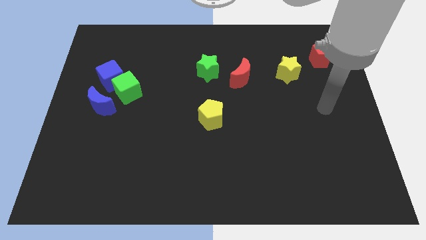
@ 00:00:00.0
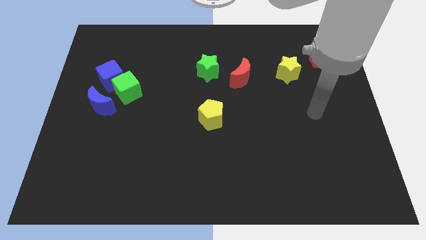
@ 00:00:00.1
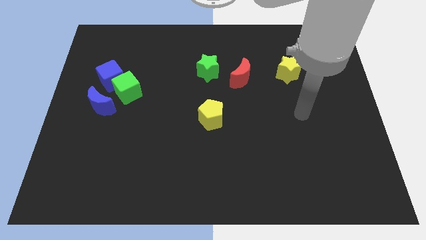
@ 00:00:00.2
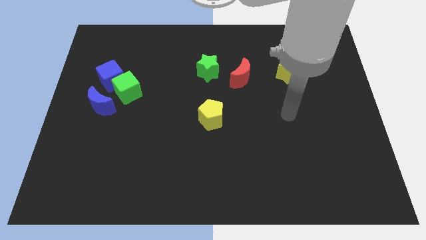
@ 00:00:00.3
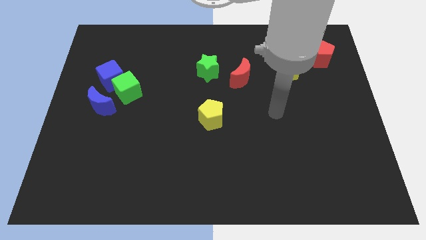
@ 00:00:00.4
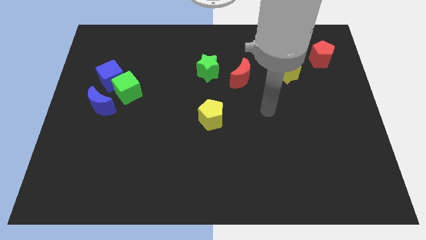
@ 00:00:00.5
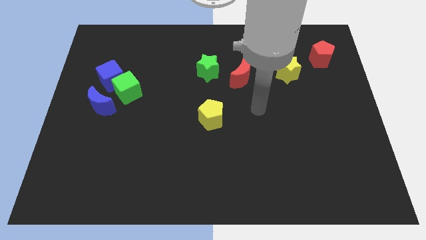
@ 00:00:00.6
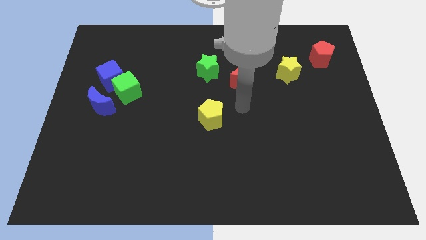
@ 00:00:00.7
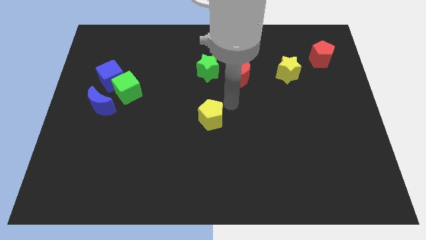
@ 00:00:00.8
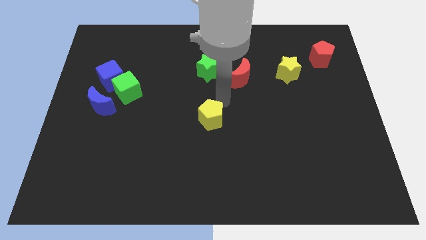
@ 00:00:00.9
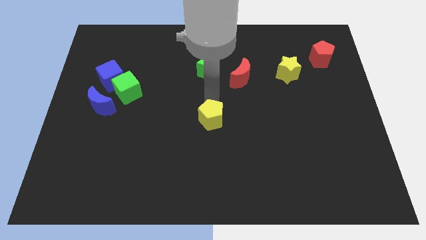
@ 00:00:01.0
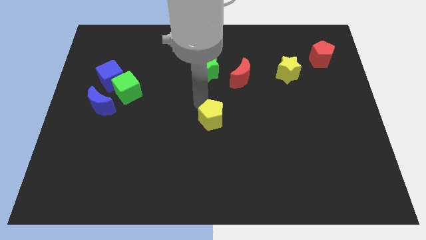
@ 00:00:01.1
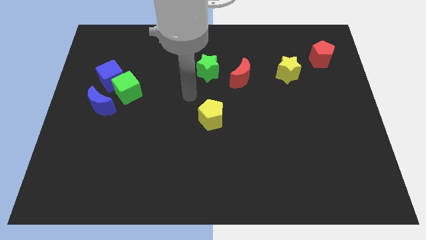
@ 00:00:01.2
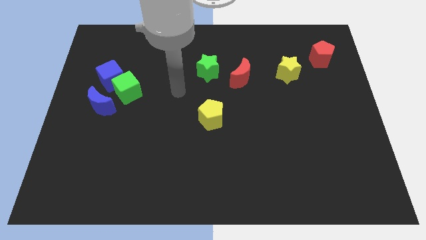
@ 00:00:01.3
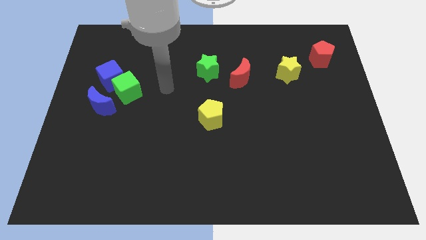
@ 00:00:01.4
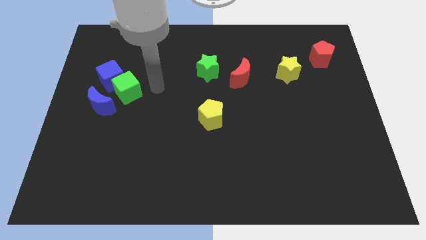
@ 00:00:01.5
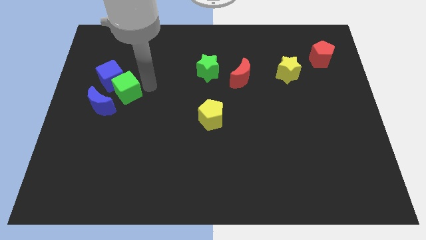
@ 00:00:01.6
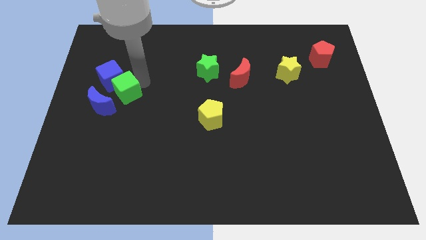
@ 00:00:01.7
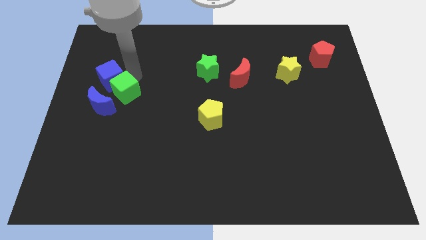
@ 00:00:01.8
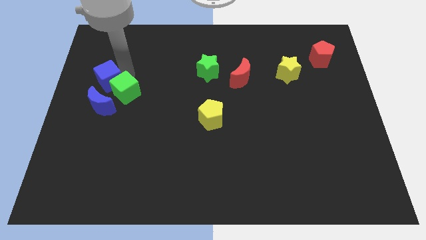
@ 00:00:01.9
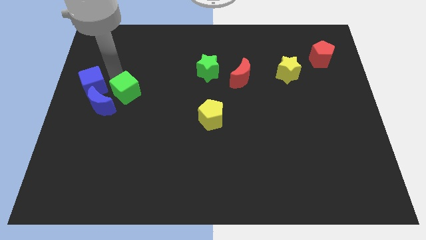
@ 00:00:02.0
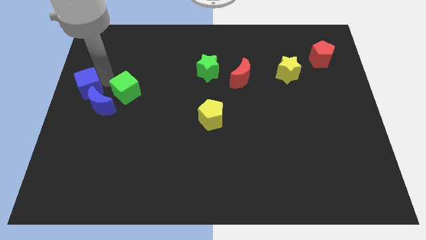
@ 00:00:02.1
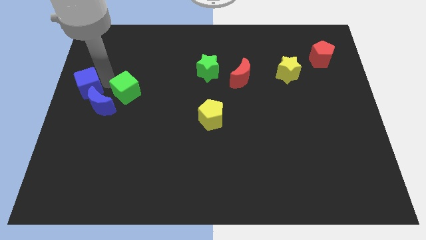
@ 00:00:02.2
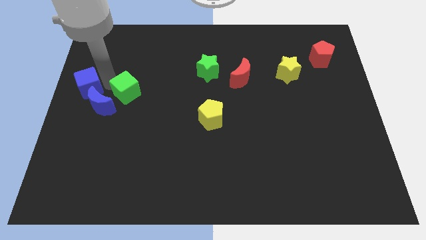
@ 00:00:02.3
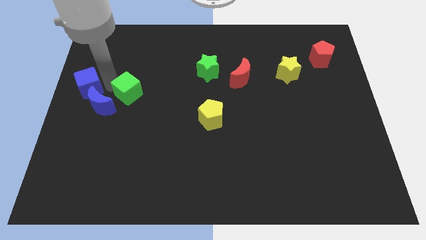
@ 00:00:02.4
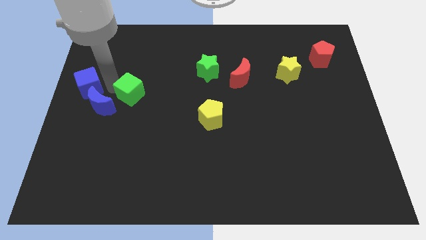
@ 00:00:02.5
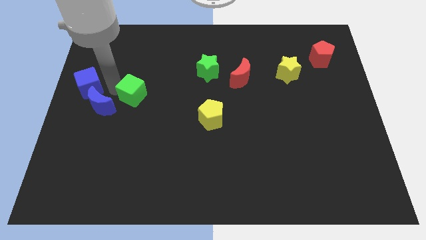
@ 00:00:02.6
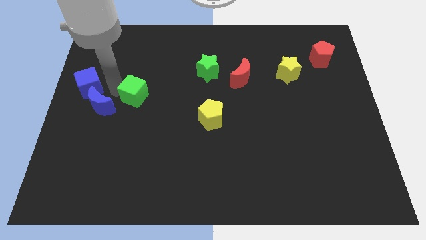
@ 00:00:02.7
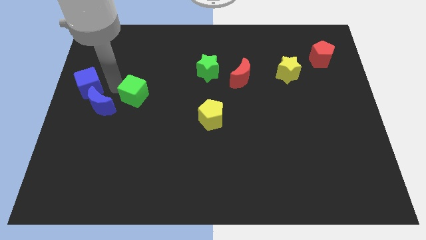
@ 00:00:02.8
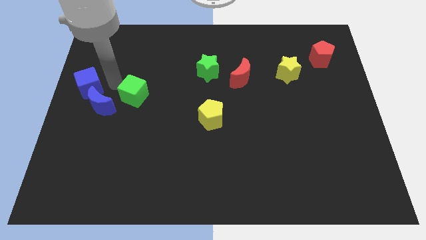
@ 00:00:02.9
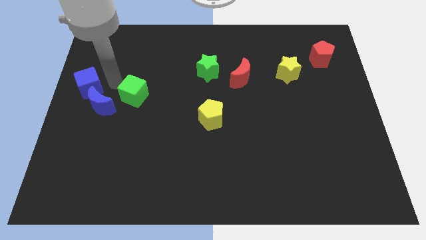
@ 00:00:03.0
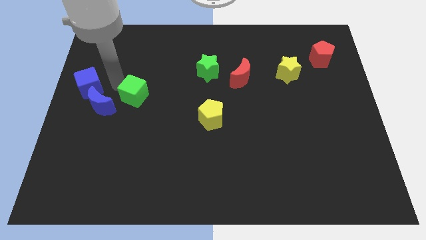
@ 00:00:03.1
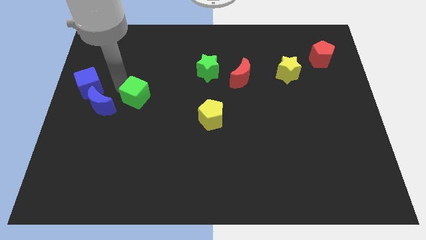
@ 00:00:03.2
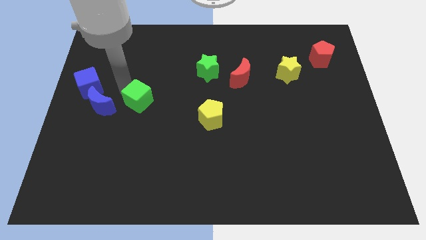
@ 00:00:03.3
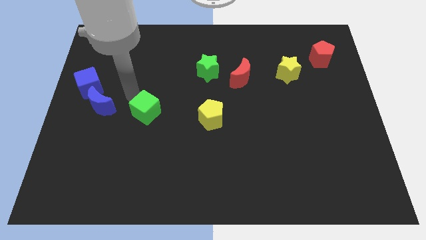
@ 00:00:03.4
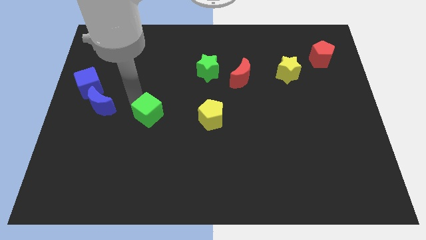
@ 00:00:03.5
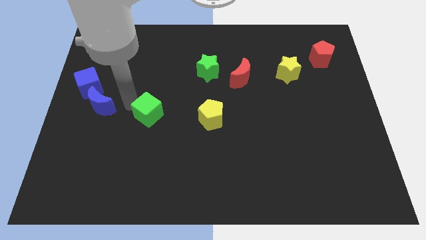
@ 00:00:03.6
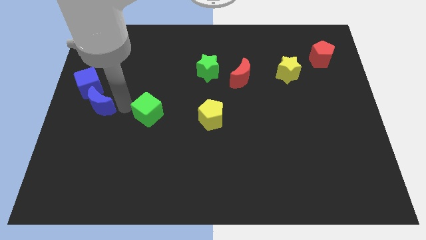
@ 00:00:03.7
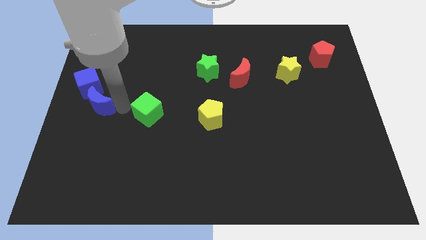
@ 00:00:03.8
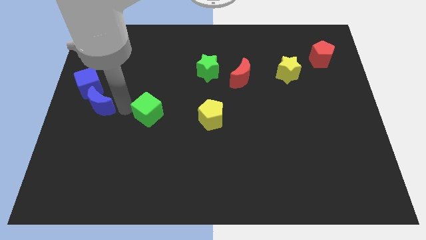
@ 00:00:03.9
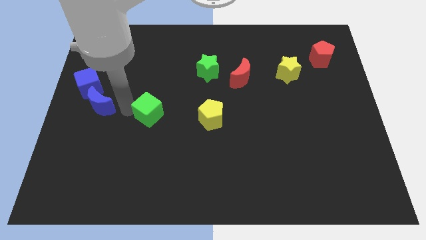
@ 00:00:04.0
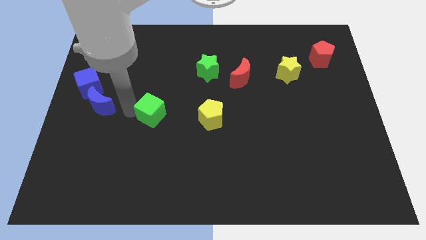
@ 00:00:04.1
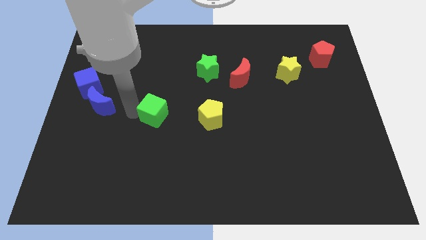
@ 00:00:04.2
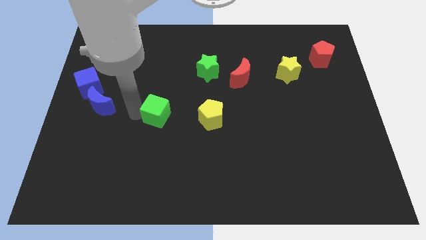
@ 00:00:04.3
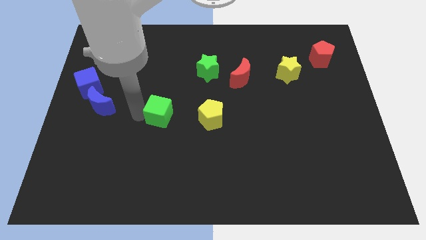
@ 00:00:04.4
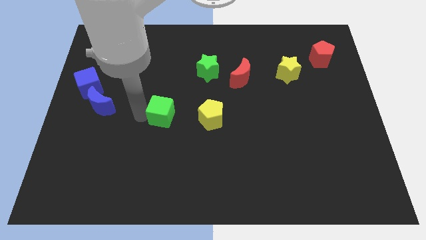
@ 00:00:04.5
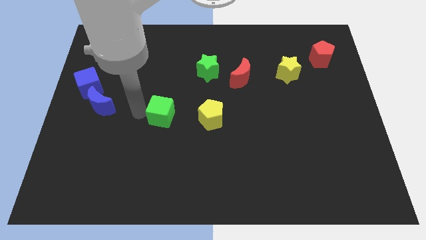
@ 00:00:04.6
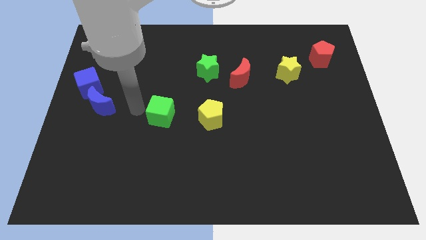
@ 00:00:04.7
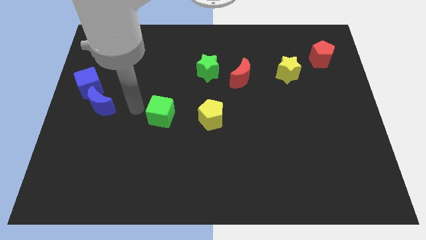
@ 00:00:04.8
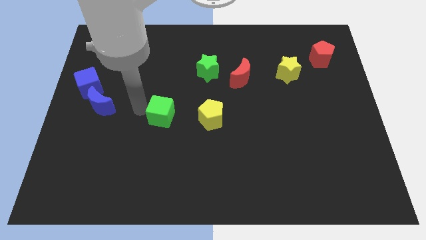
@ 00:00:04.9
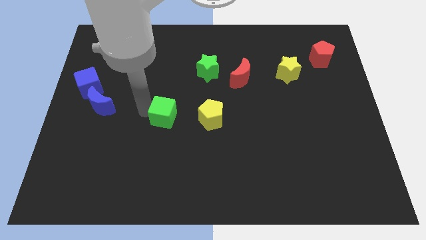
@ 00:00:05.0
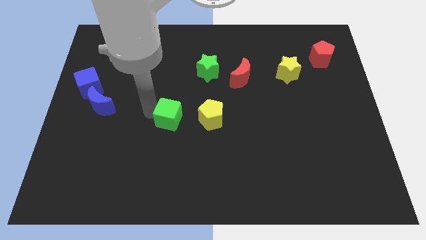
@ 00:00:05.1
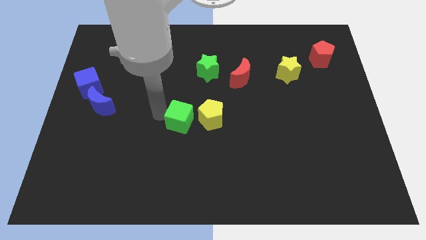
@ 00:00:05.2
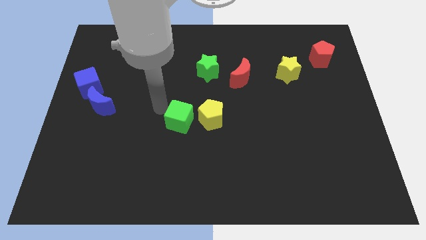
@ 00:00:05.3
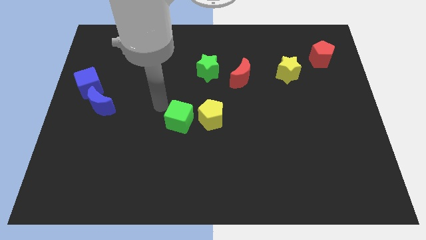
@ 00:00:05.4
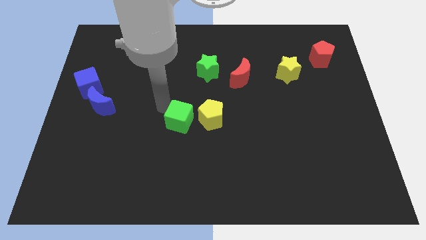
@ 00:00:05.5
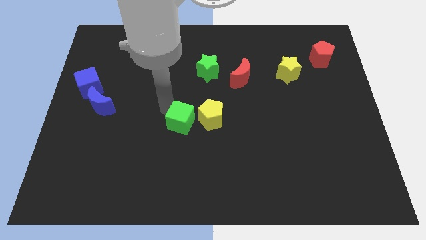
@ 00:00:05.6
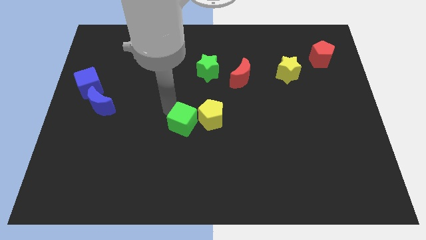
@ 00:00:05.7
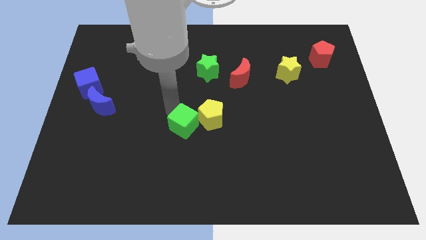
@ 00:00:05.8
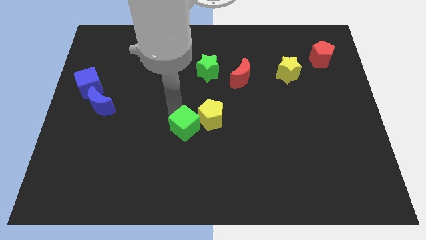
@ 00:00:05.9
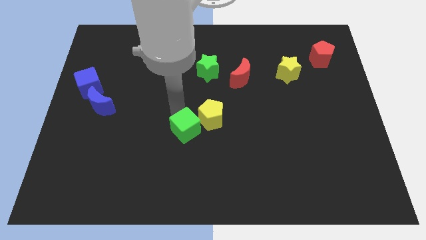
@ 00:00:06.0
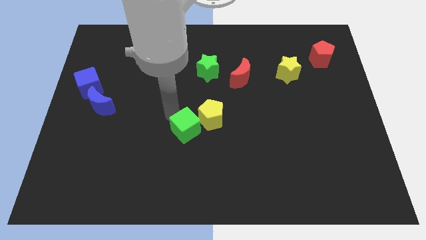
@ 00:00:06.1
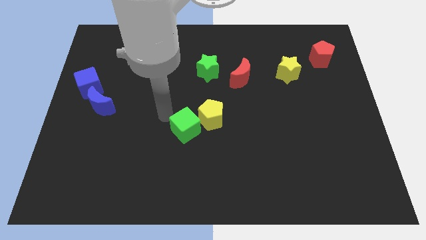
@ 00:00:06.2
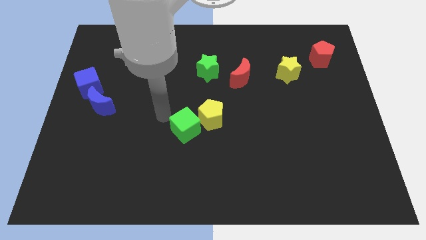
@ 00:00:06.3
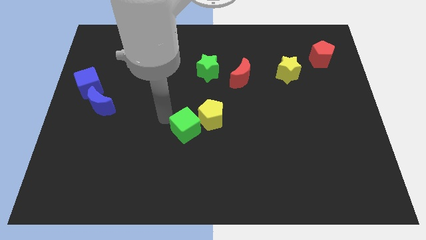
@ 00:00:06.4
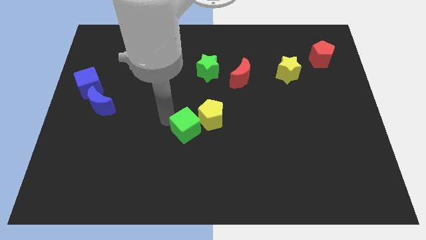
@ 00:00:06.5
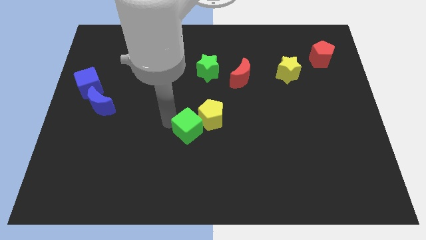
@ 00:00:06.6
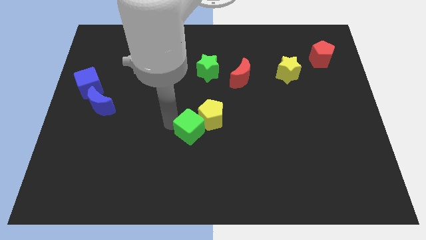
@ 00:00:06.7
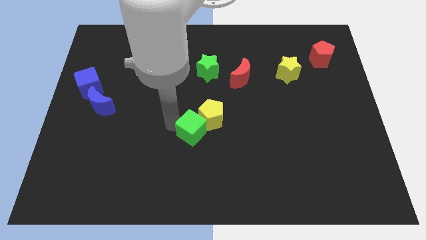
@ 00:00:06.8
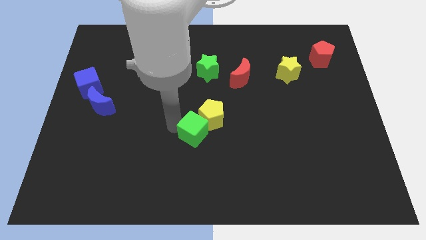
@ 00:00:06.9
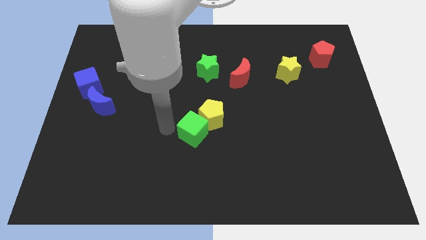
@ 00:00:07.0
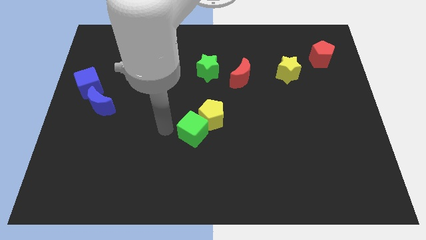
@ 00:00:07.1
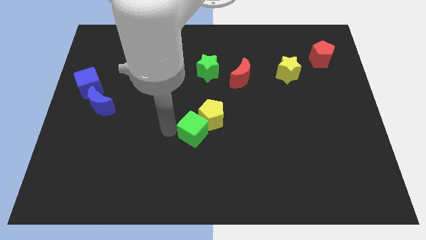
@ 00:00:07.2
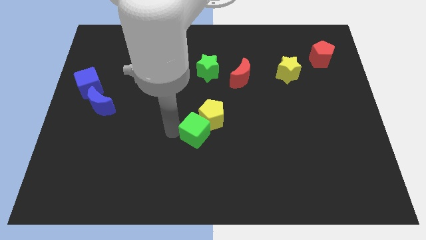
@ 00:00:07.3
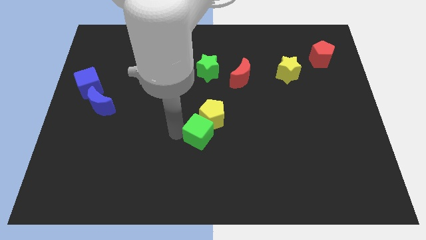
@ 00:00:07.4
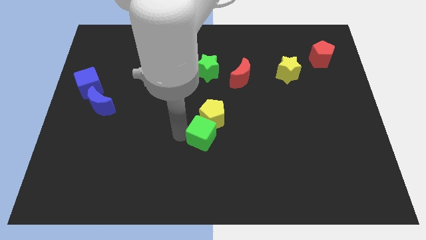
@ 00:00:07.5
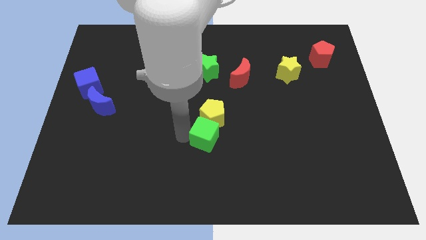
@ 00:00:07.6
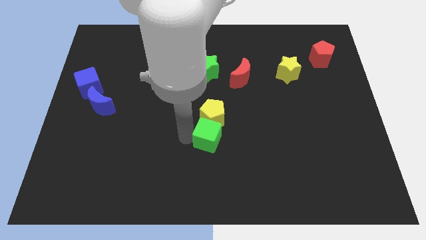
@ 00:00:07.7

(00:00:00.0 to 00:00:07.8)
move the green cube to the bottom right of the yellow pentagon
